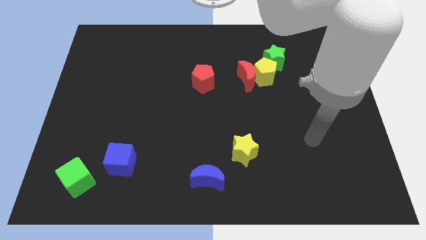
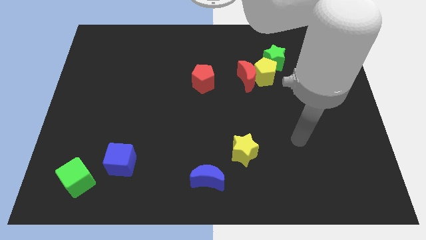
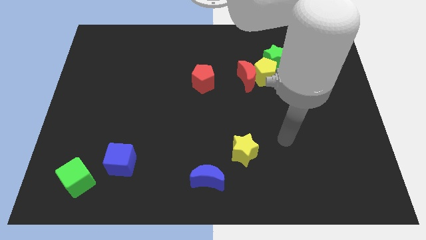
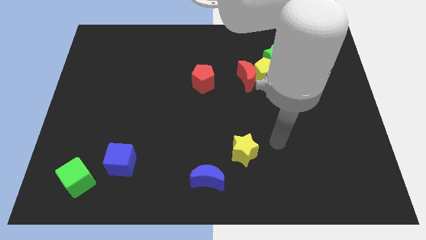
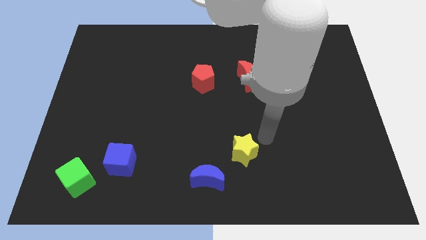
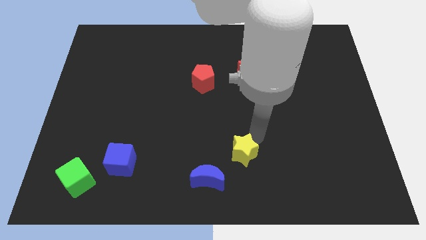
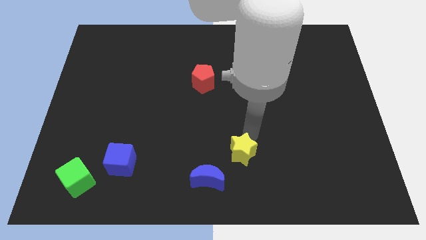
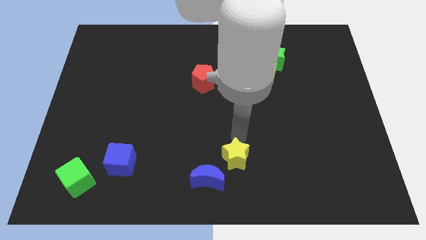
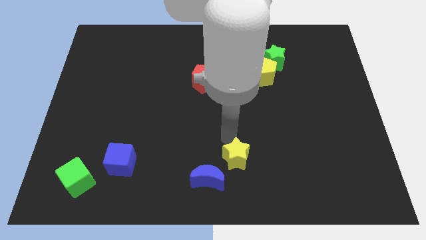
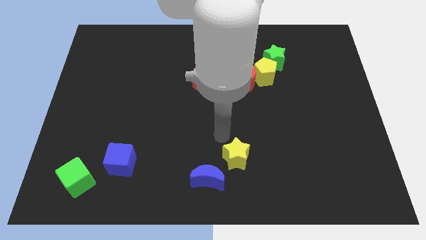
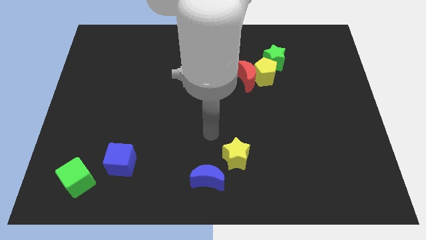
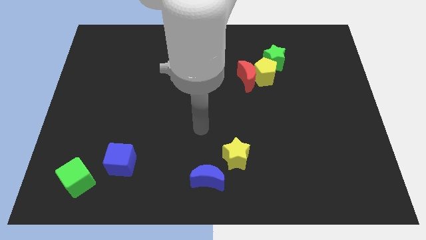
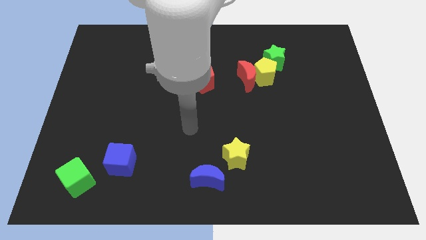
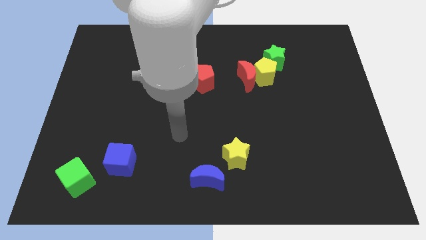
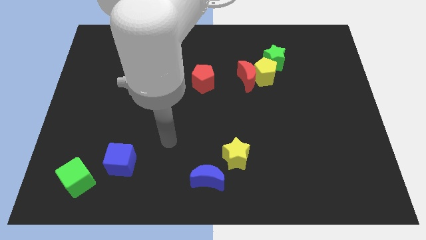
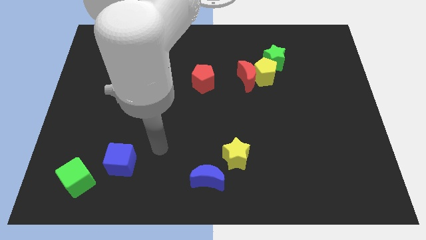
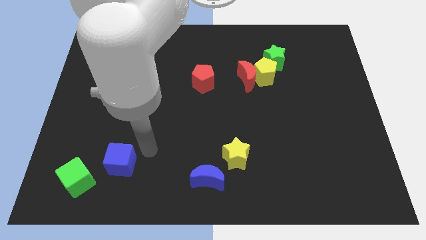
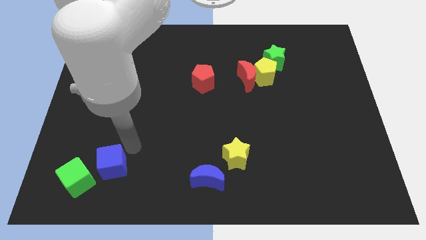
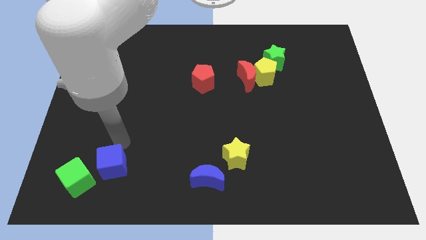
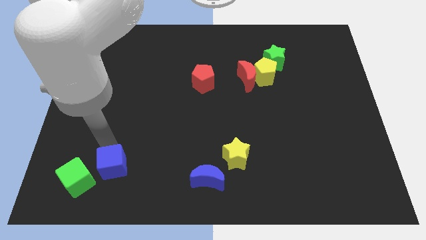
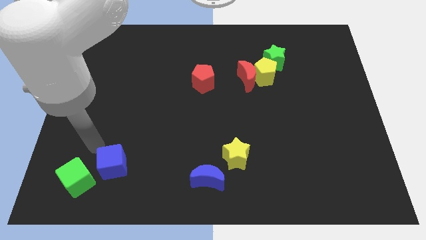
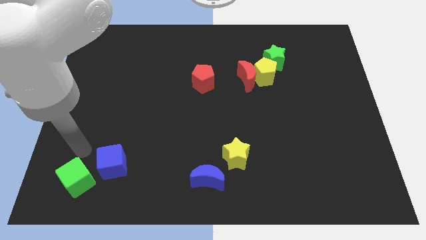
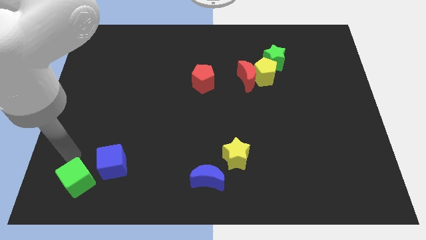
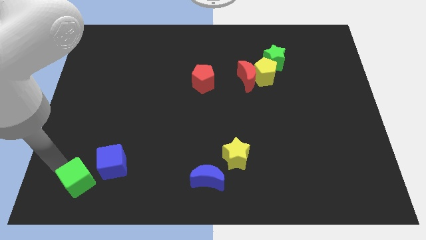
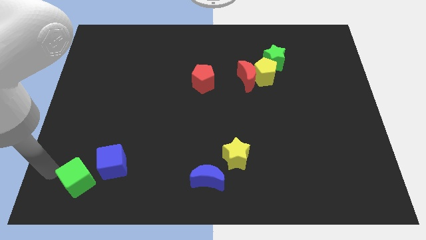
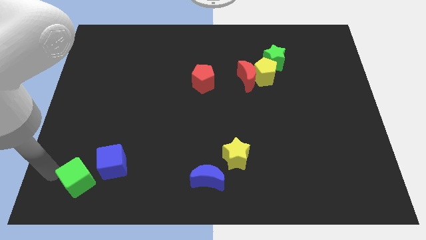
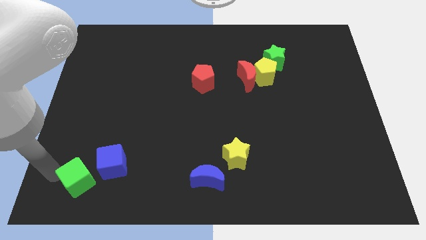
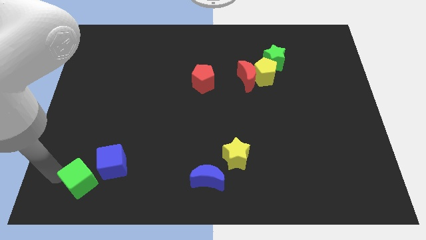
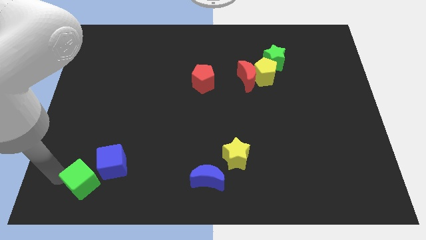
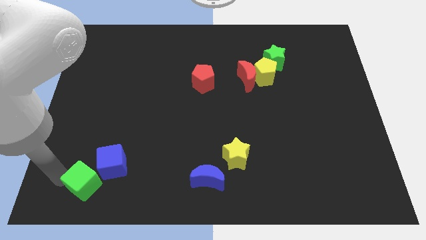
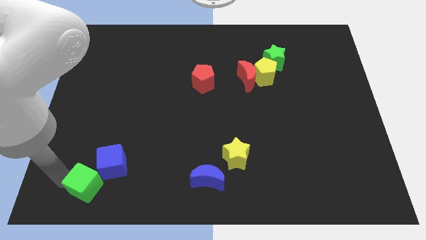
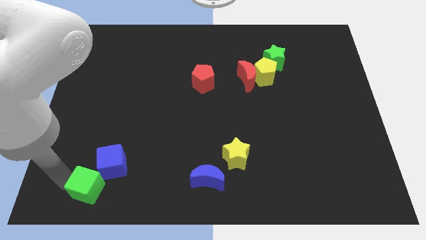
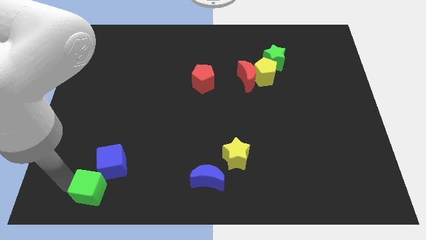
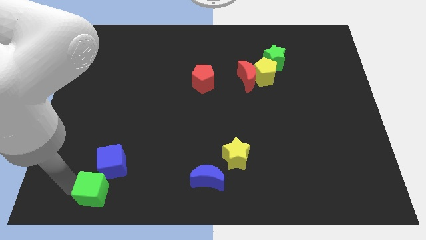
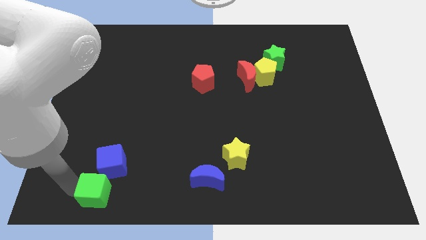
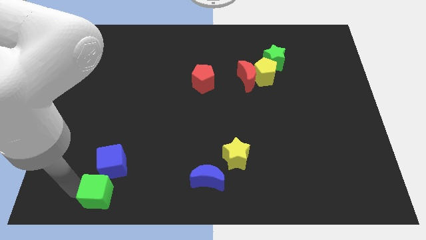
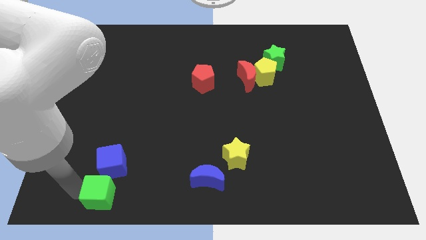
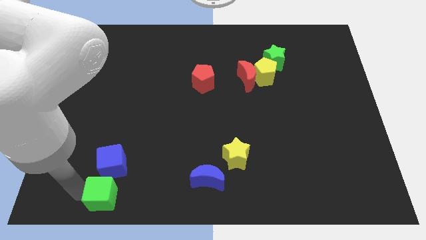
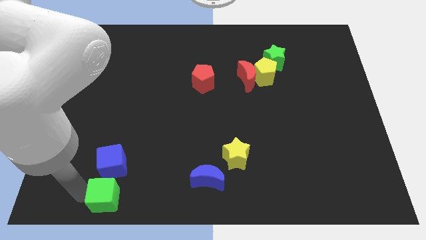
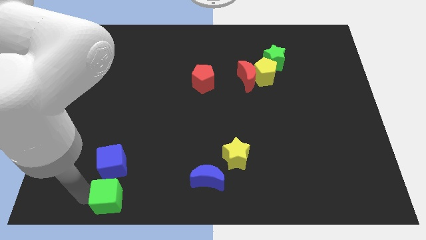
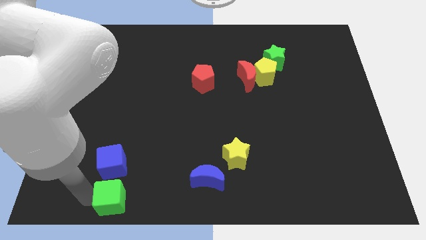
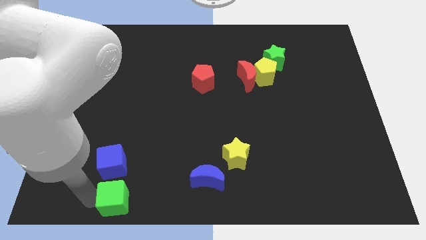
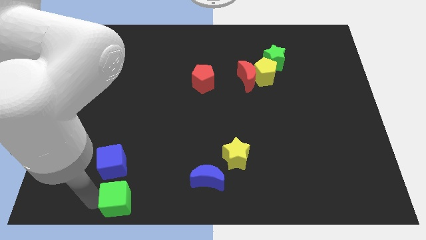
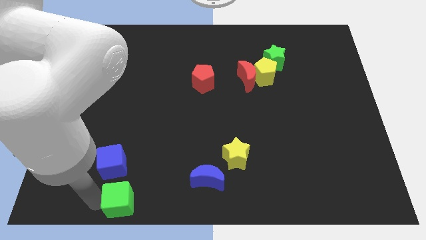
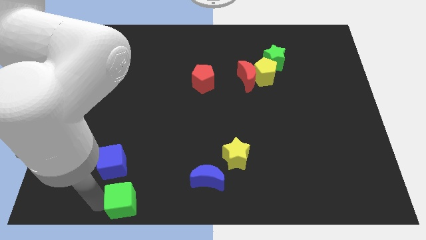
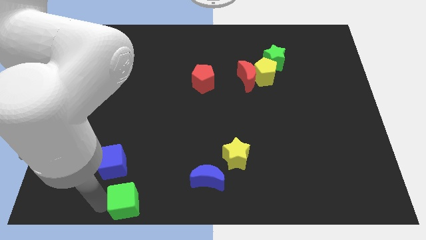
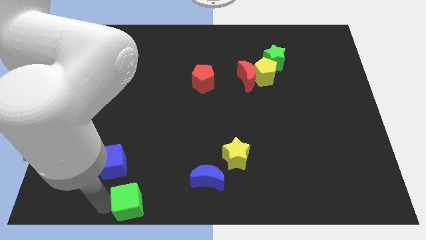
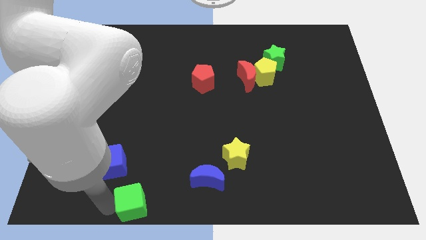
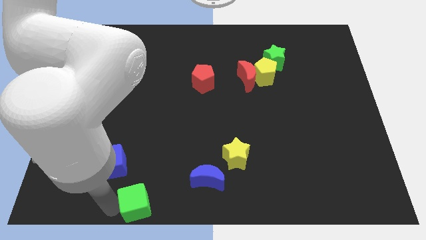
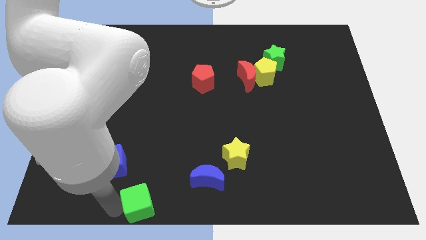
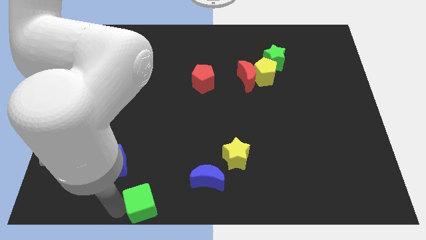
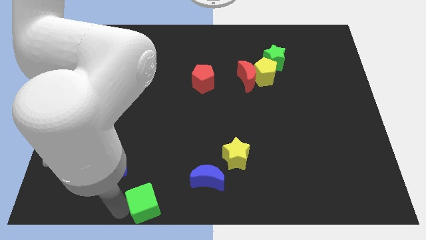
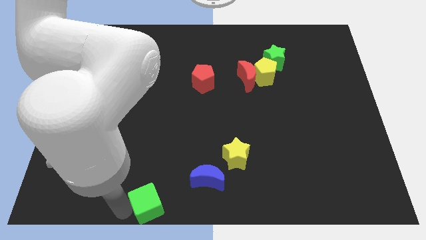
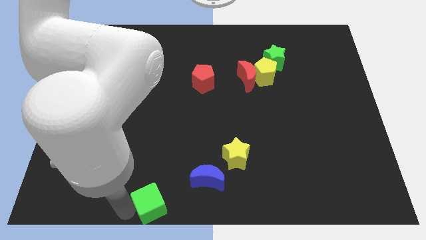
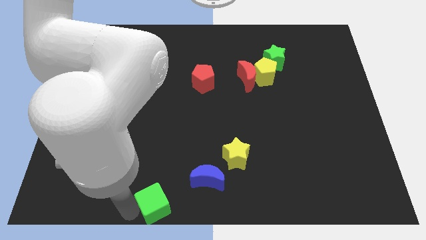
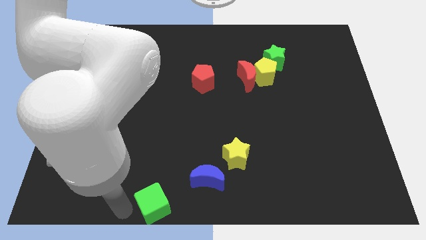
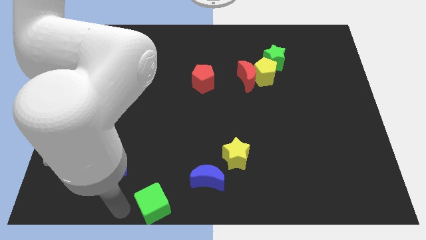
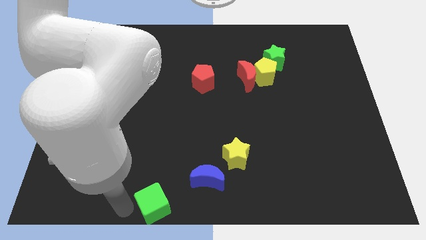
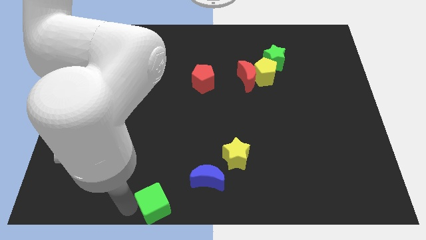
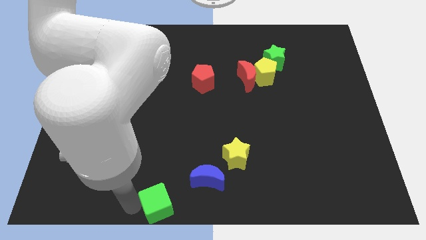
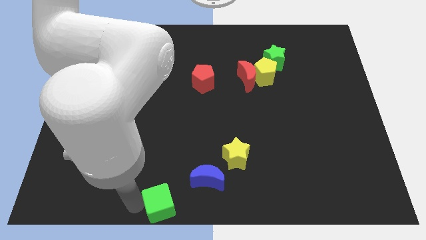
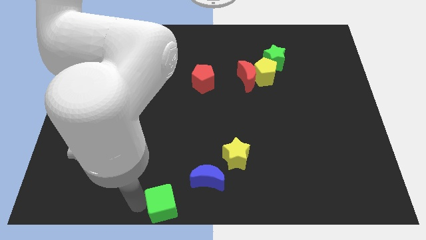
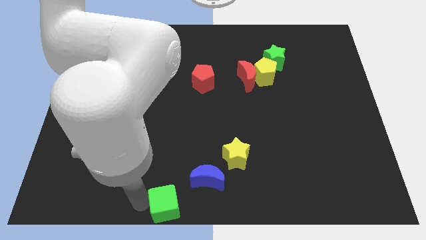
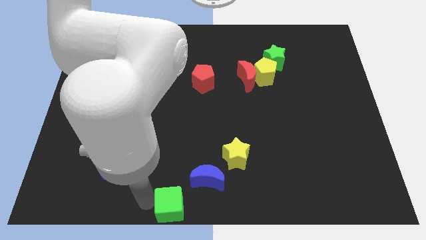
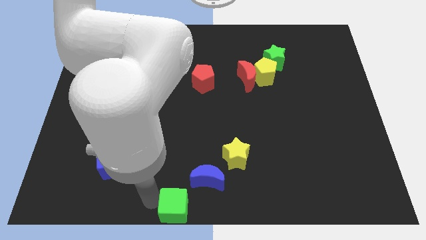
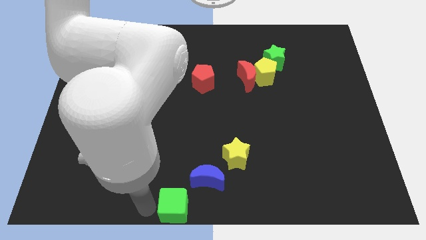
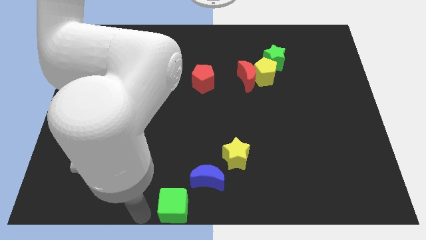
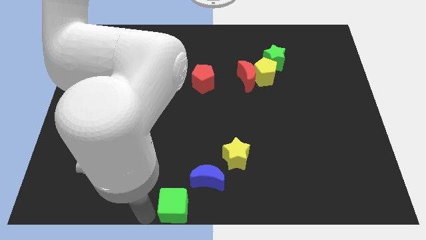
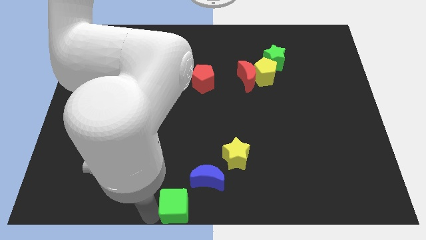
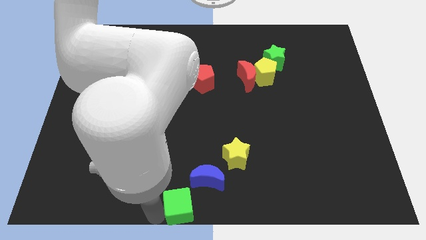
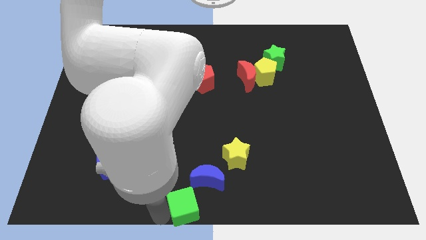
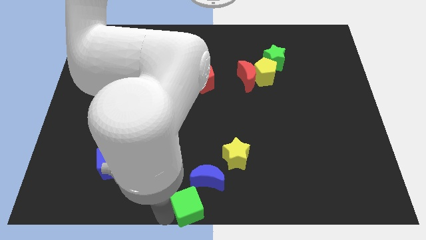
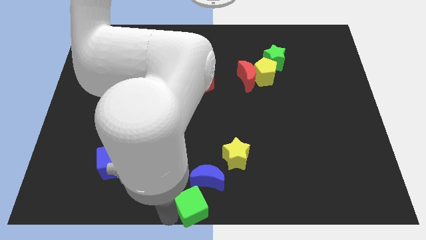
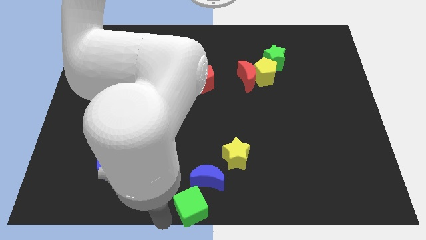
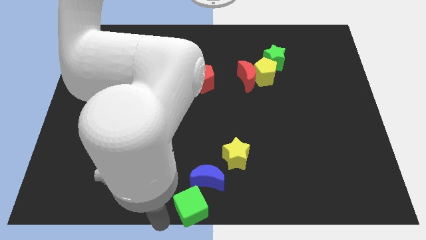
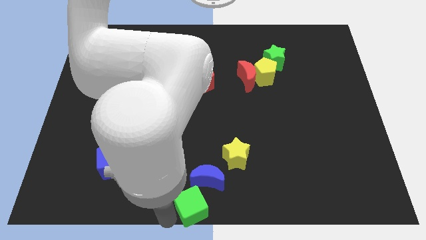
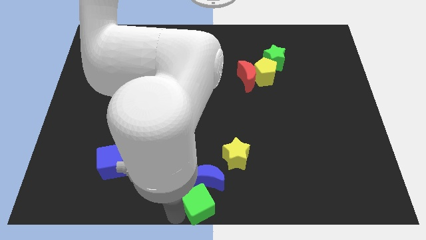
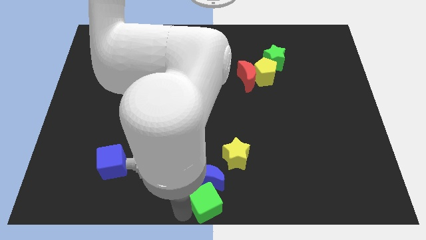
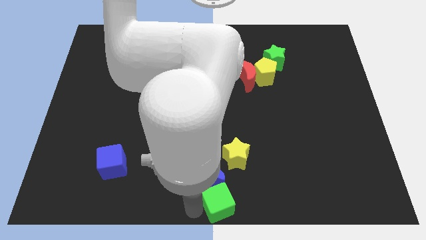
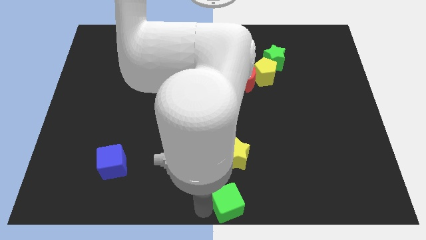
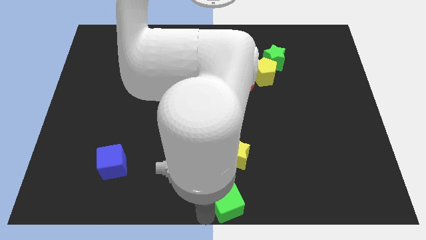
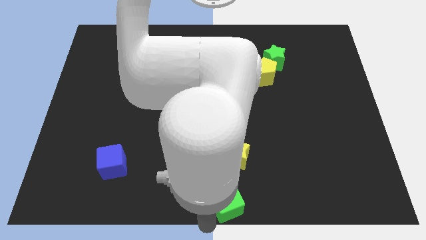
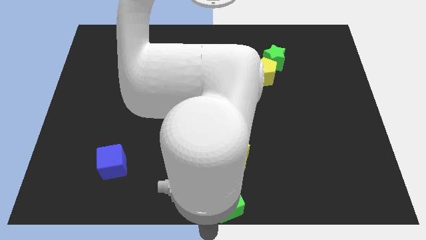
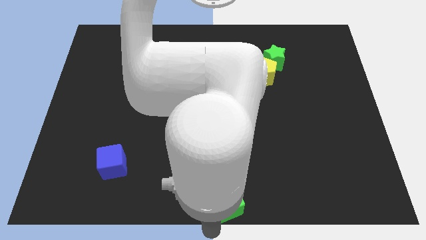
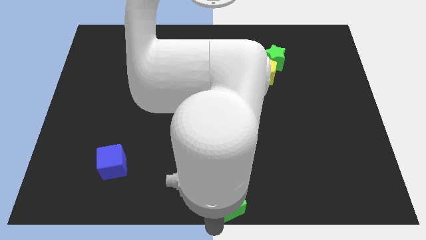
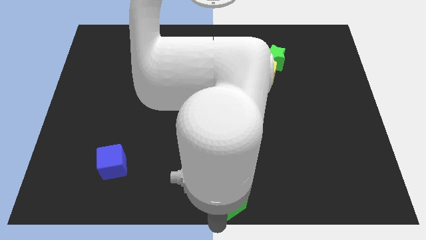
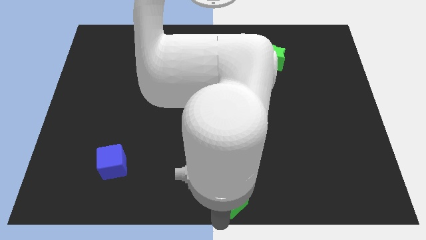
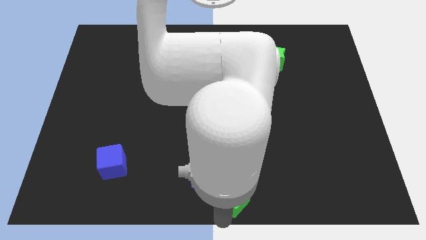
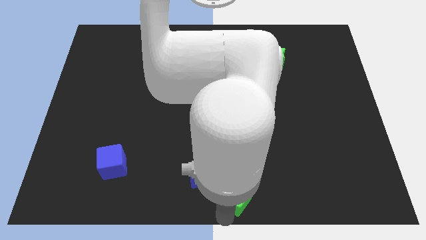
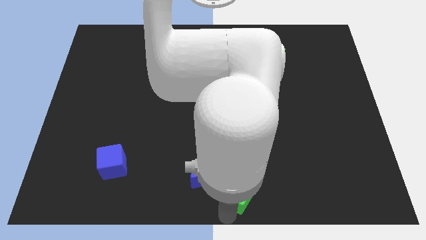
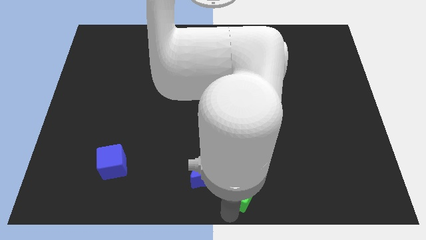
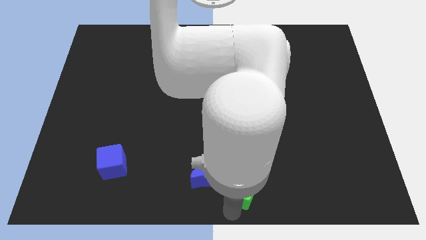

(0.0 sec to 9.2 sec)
push the green cube diagonally down and to the right of the yellow star
